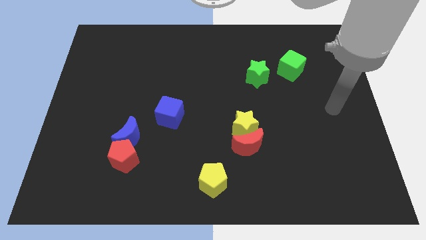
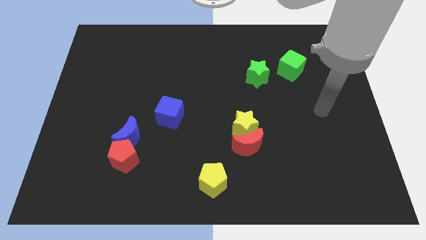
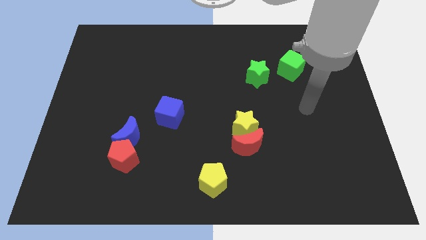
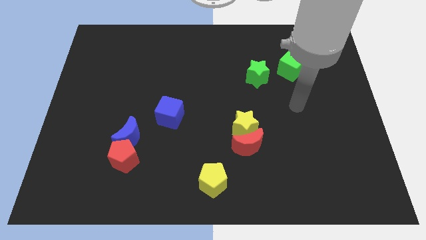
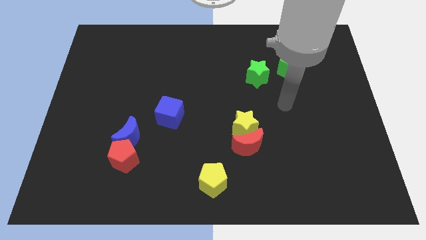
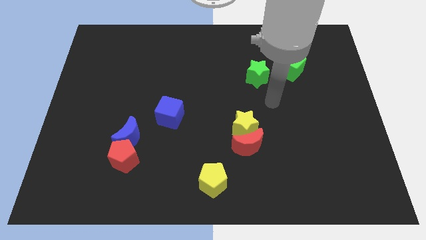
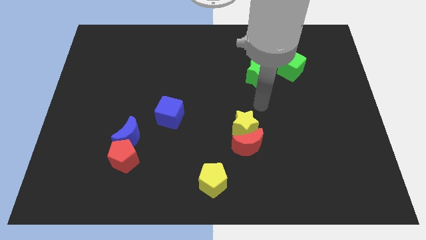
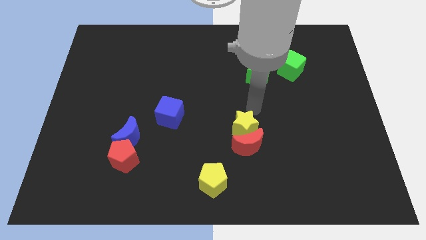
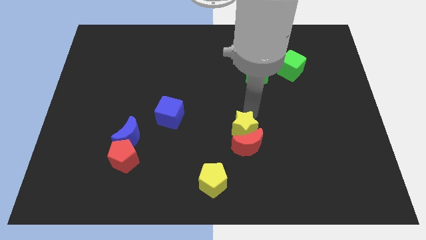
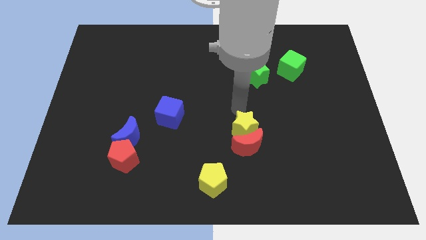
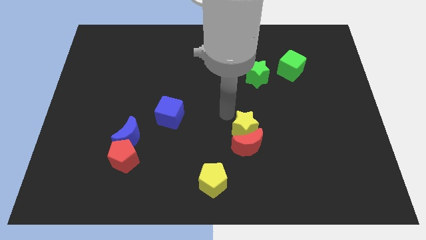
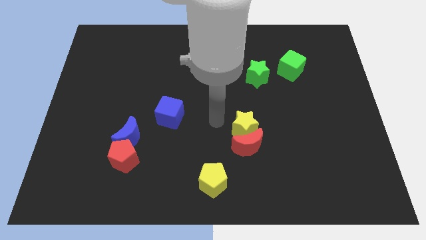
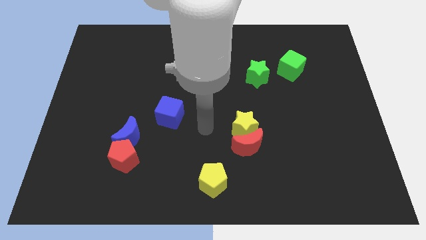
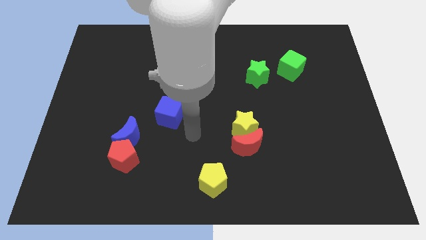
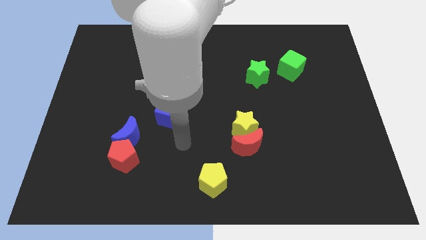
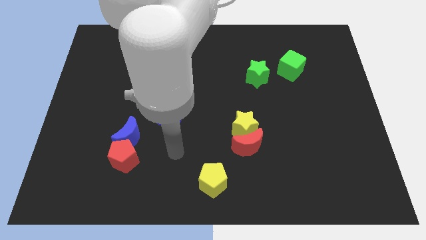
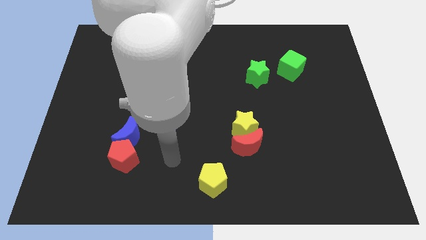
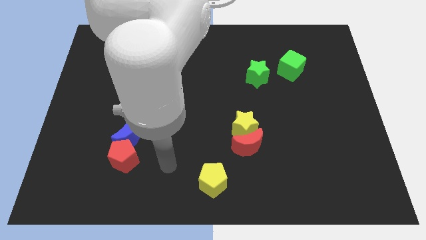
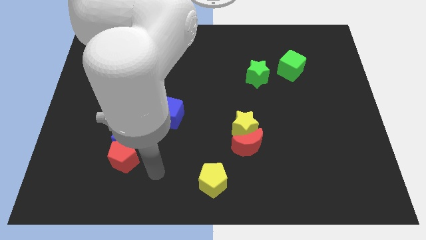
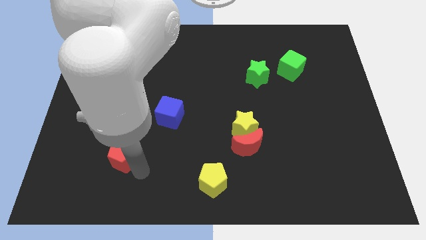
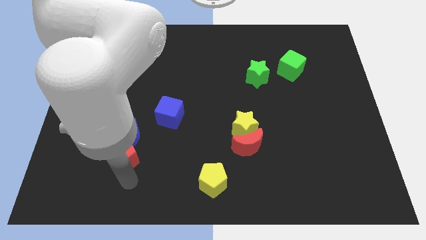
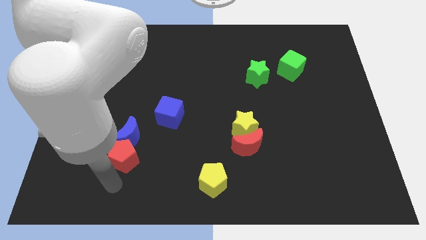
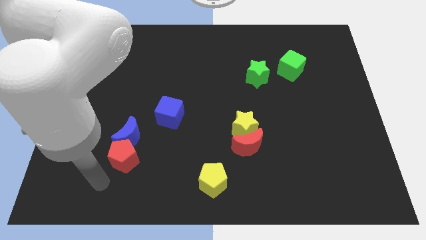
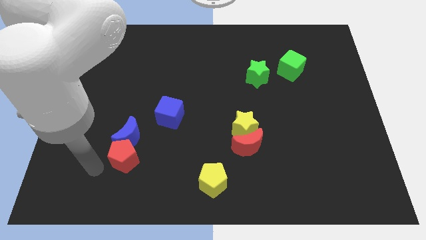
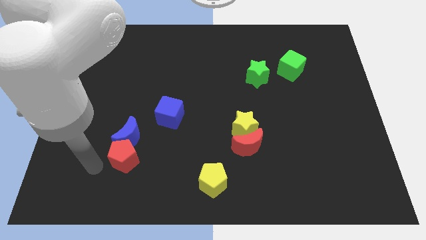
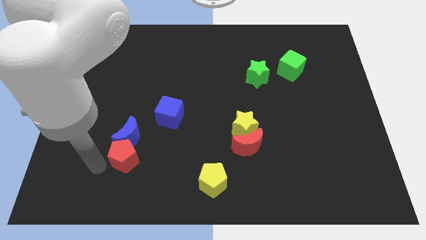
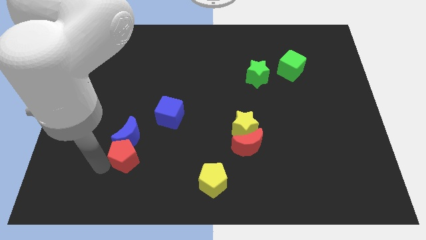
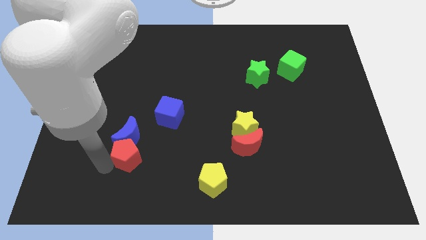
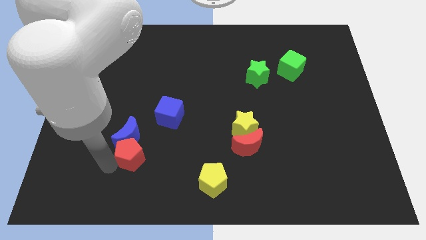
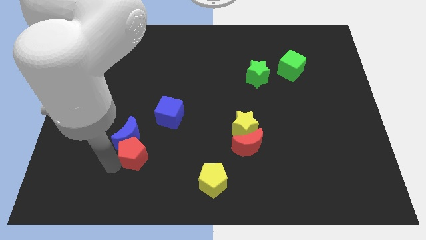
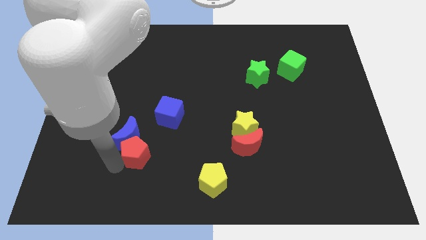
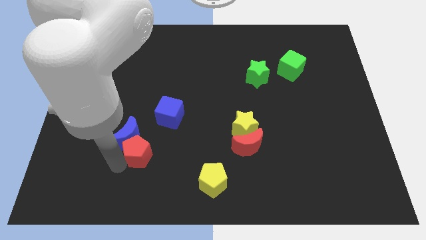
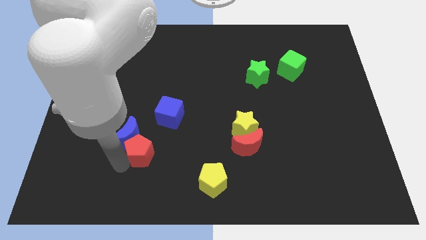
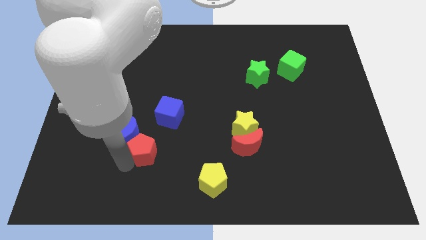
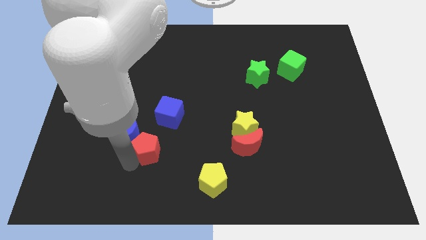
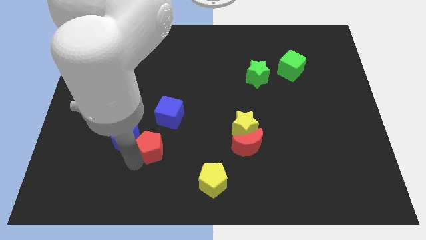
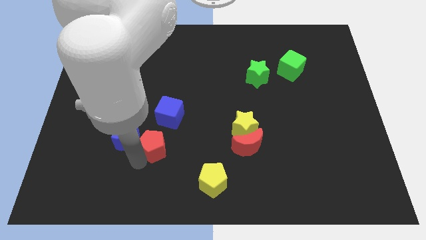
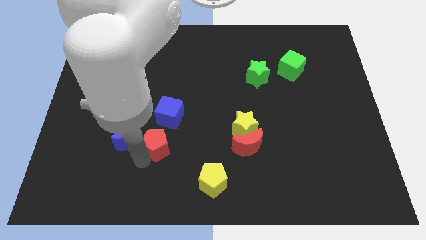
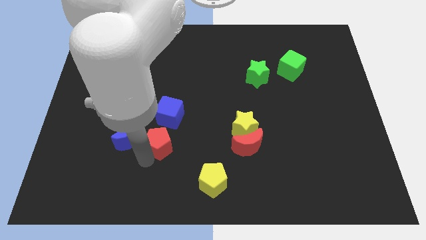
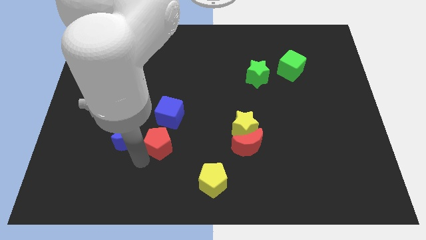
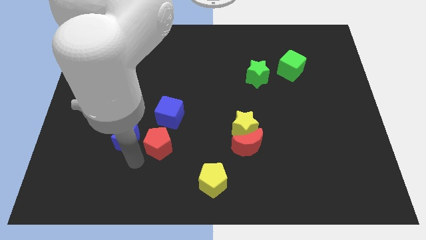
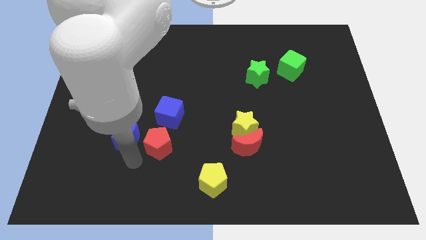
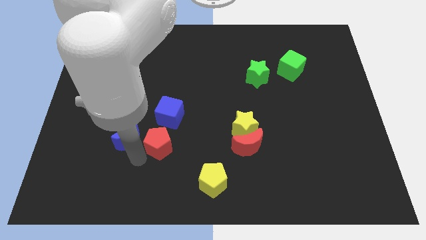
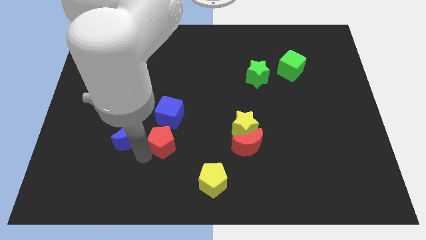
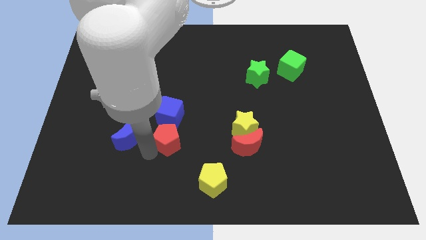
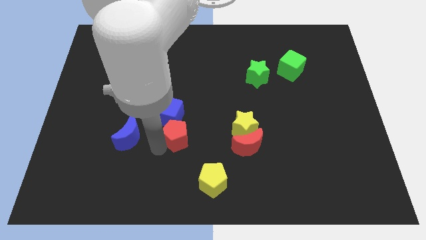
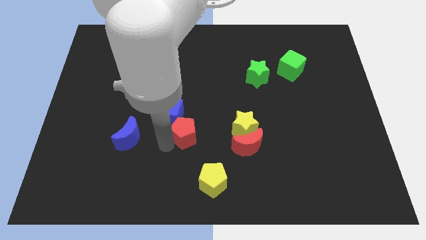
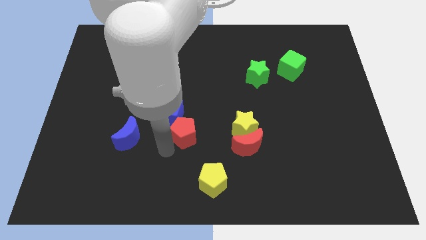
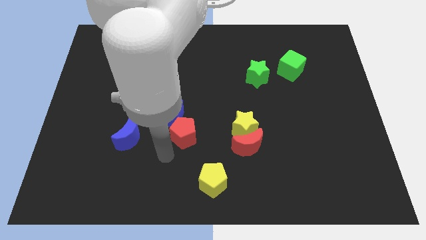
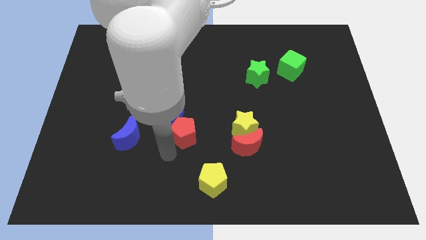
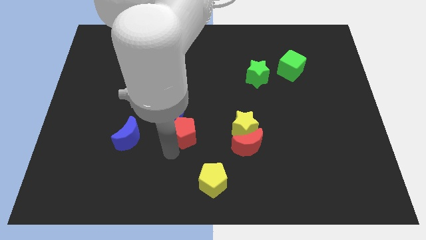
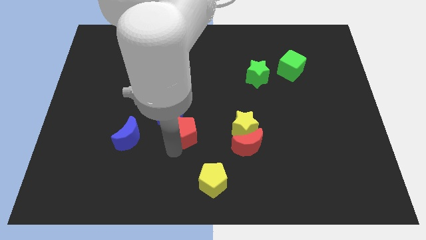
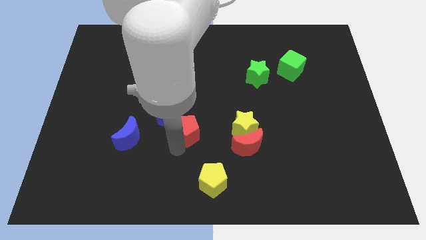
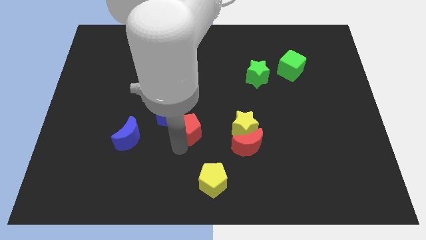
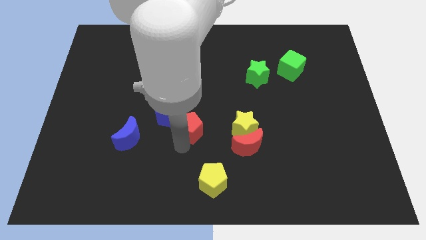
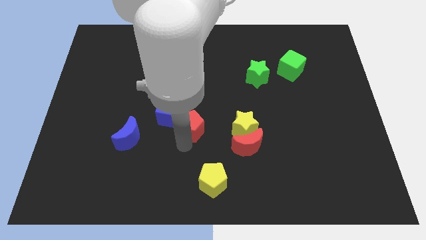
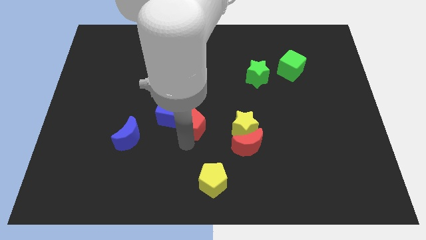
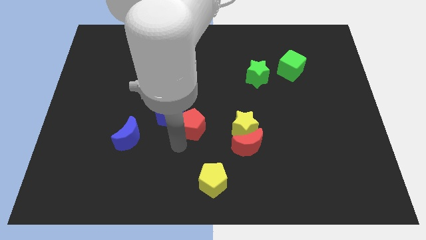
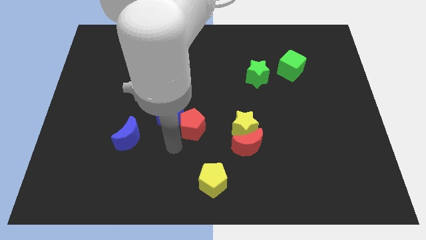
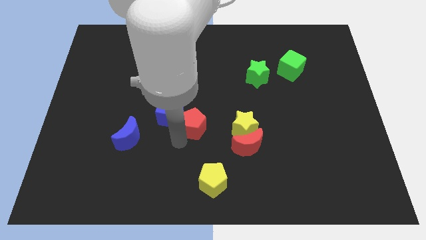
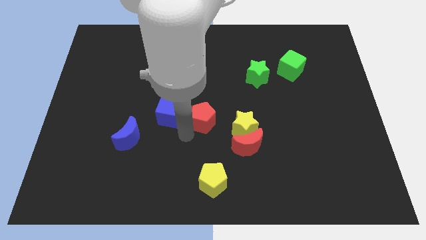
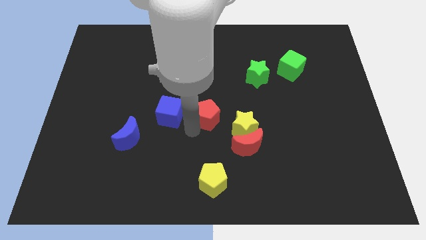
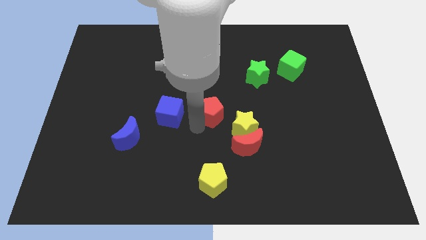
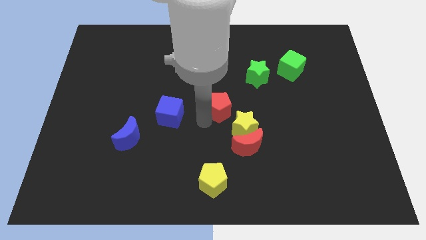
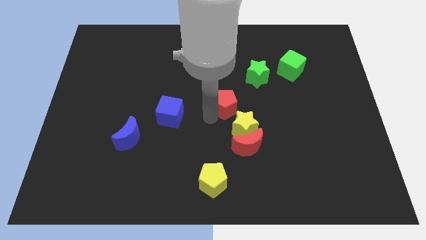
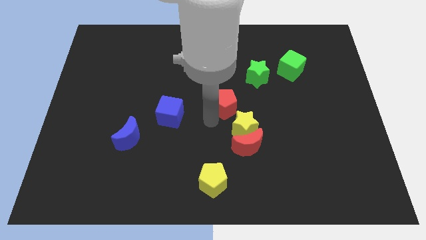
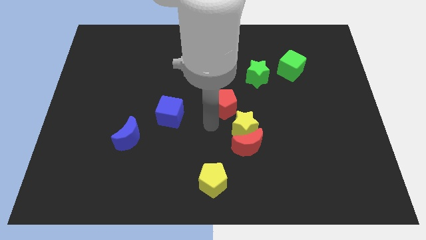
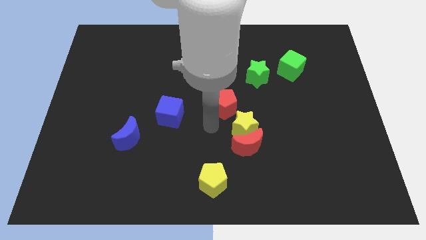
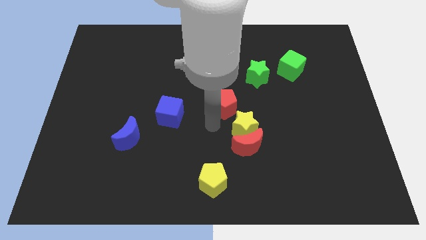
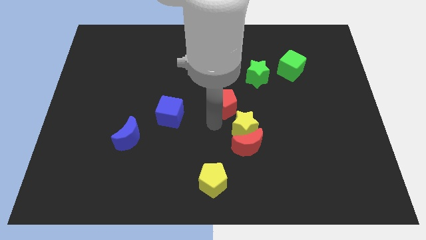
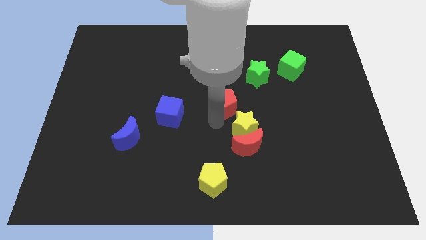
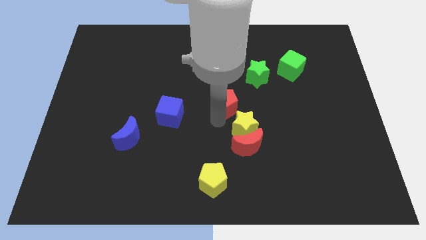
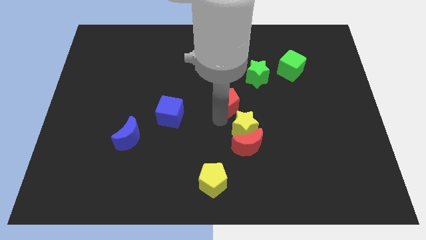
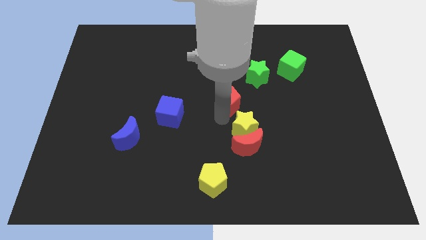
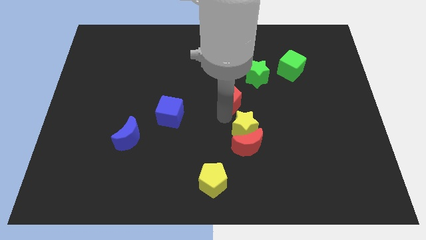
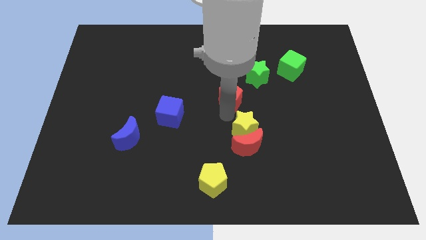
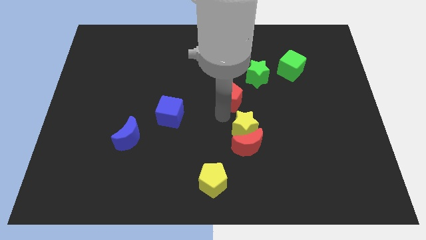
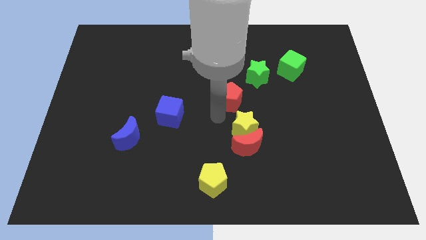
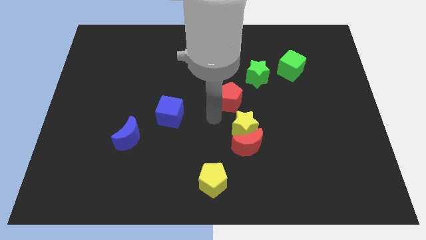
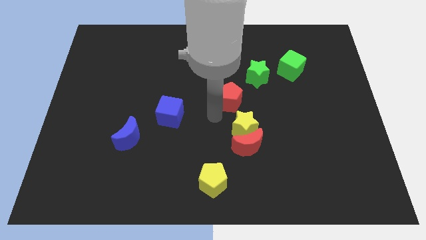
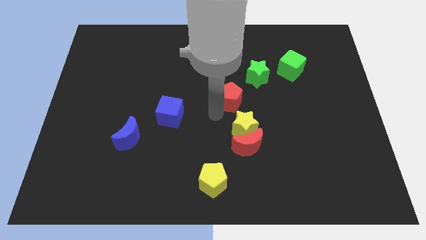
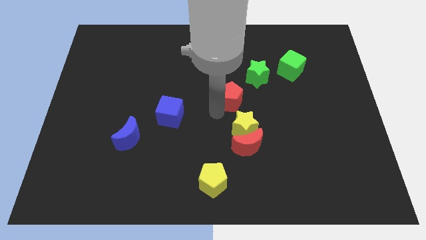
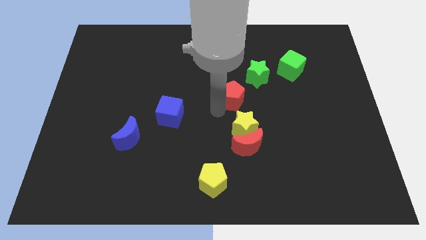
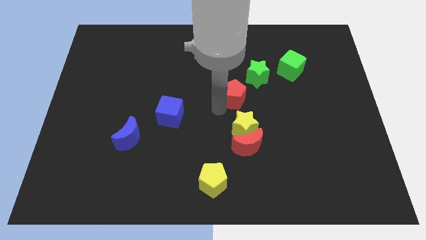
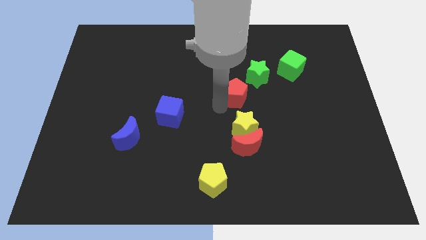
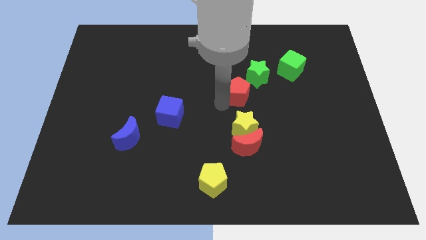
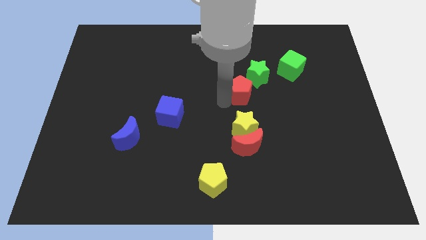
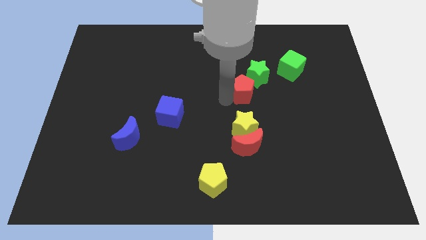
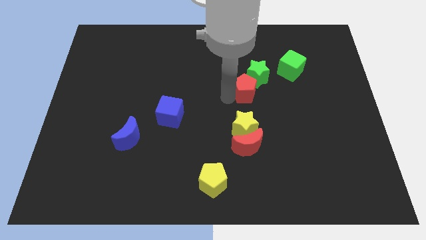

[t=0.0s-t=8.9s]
move the red pentagon next to the green star
